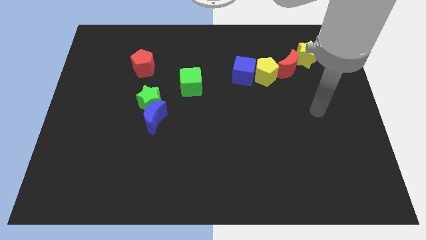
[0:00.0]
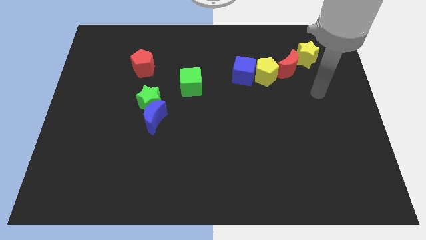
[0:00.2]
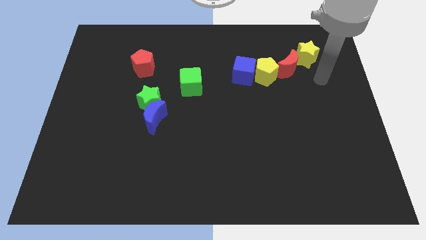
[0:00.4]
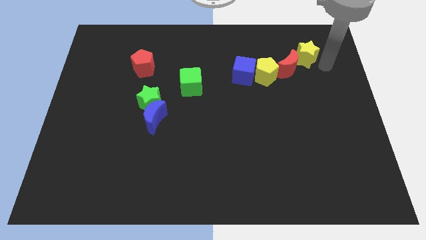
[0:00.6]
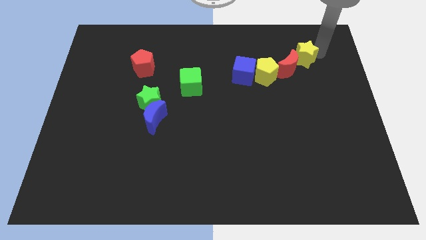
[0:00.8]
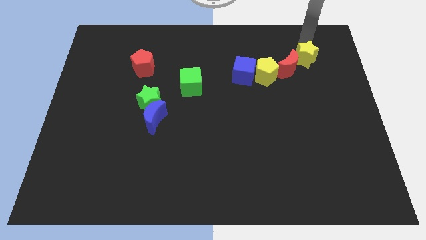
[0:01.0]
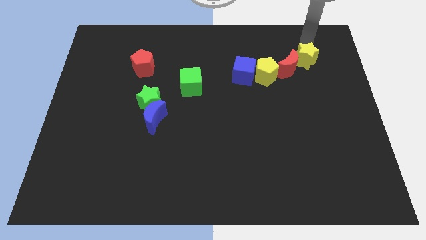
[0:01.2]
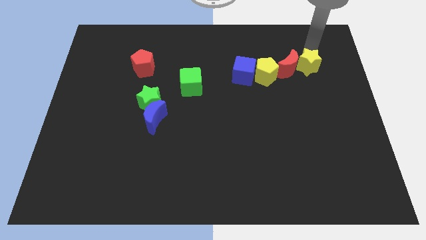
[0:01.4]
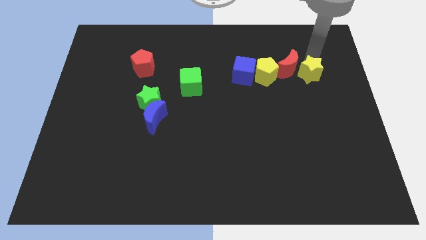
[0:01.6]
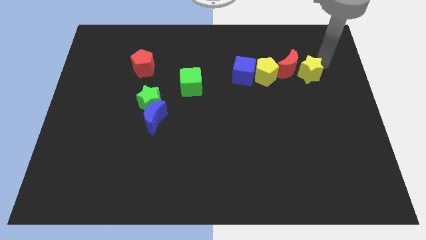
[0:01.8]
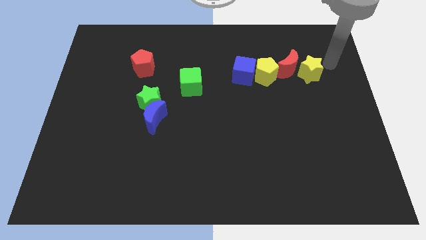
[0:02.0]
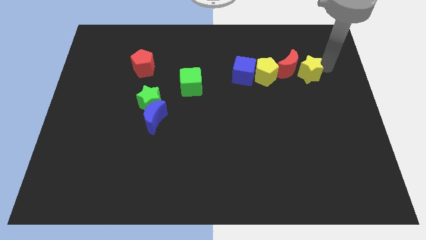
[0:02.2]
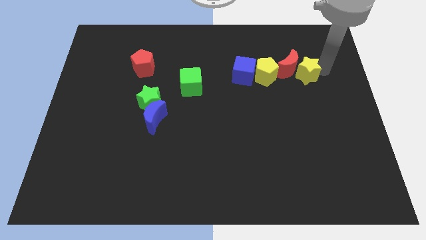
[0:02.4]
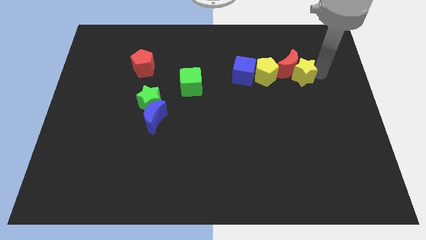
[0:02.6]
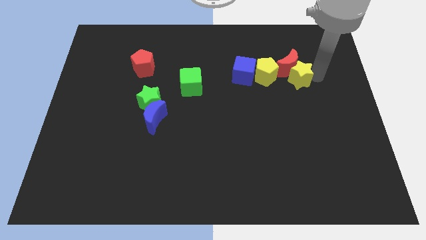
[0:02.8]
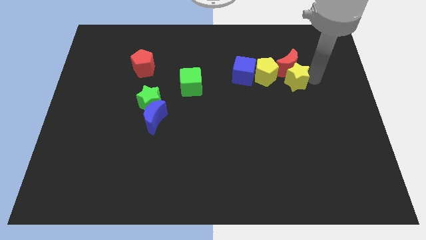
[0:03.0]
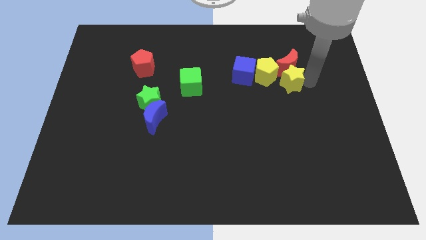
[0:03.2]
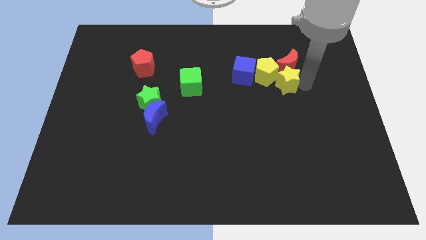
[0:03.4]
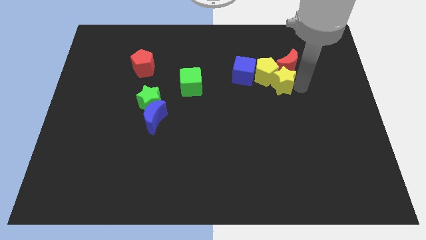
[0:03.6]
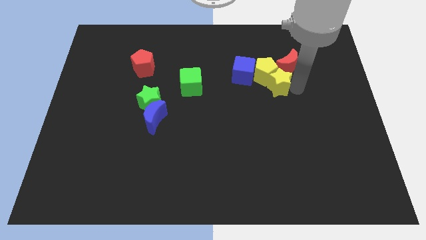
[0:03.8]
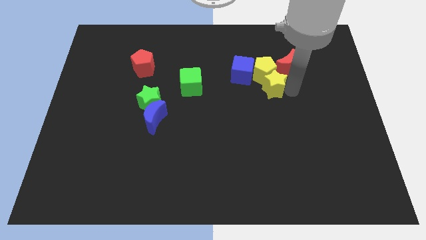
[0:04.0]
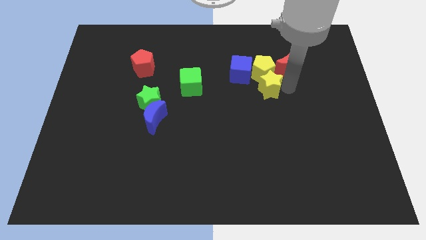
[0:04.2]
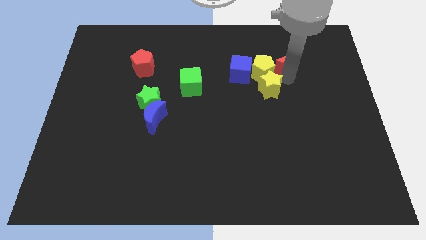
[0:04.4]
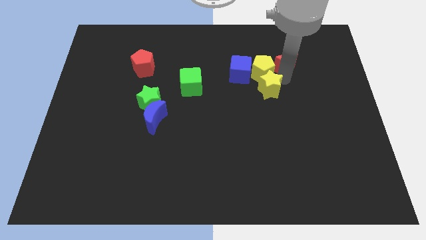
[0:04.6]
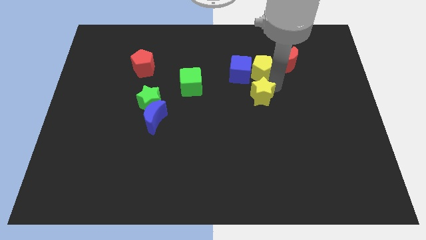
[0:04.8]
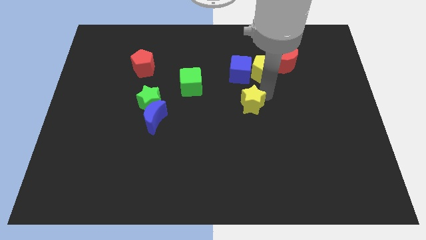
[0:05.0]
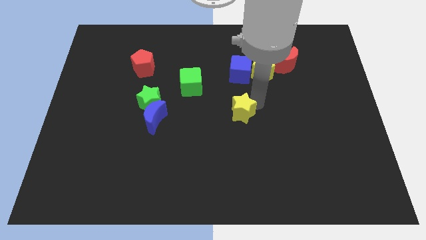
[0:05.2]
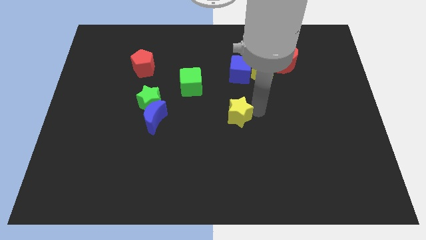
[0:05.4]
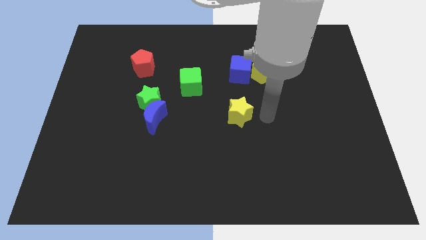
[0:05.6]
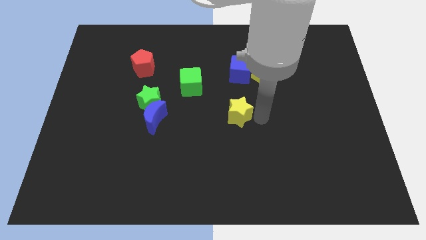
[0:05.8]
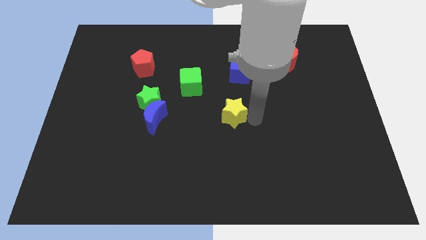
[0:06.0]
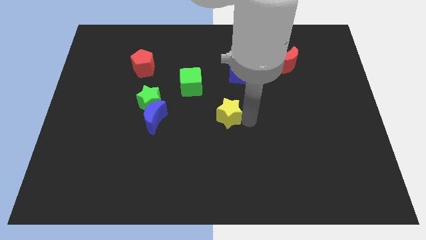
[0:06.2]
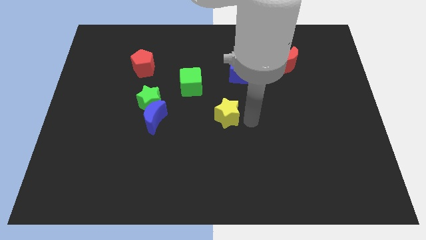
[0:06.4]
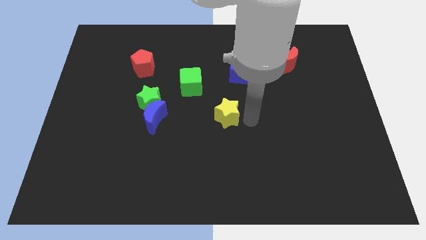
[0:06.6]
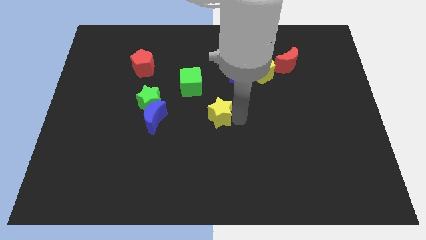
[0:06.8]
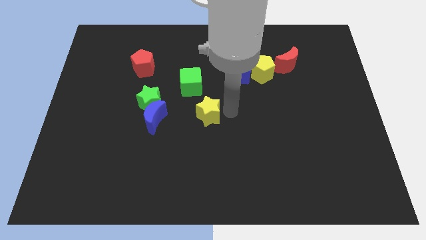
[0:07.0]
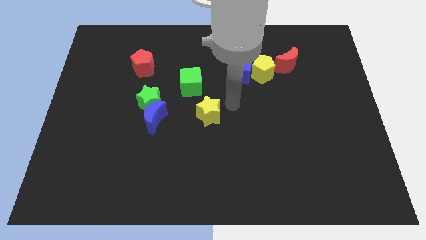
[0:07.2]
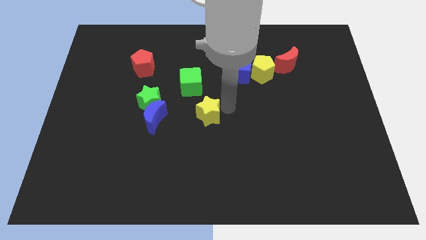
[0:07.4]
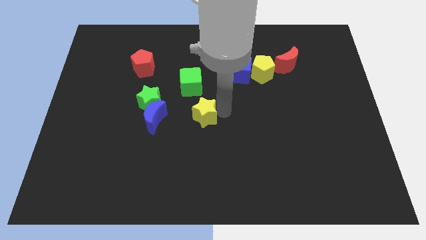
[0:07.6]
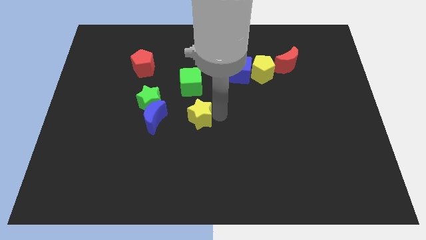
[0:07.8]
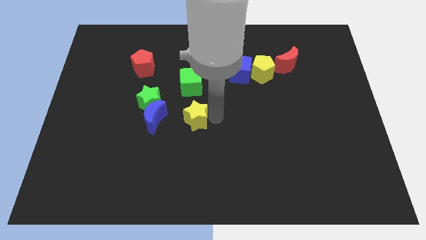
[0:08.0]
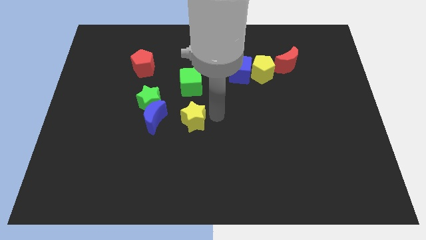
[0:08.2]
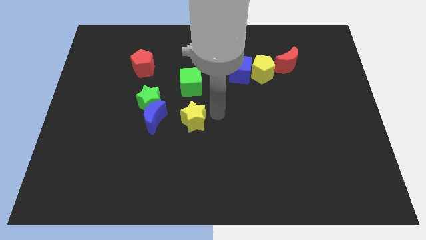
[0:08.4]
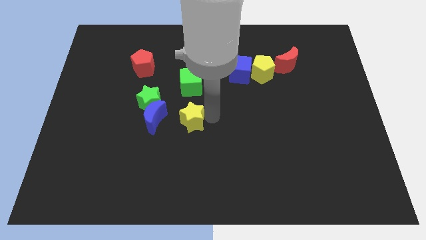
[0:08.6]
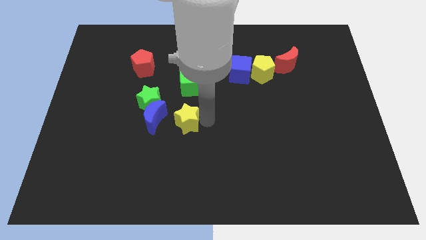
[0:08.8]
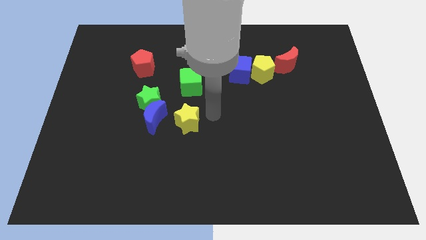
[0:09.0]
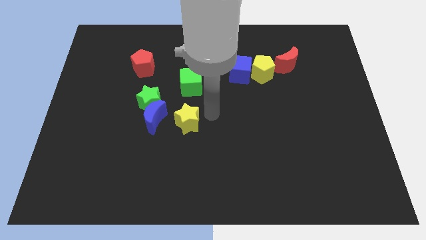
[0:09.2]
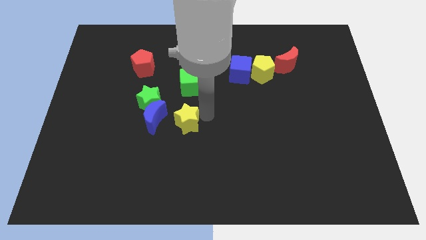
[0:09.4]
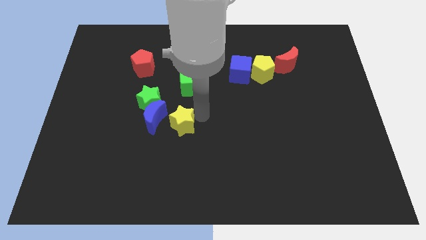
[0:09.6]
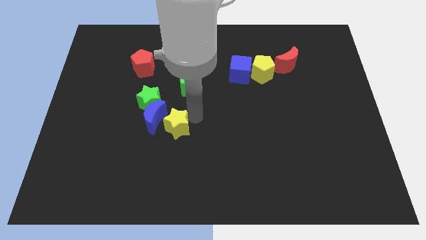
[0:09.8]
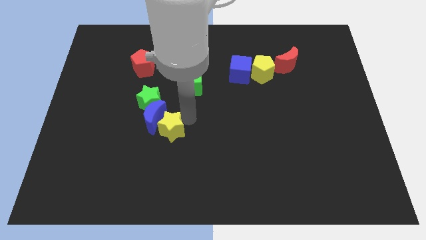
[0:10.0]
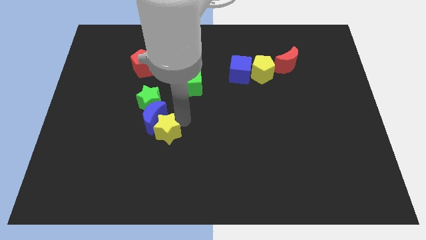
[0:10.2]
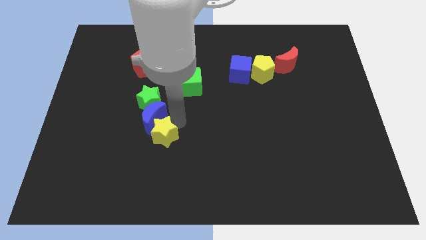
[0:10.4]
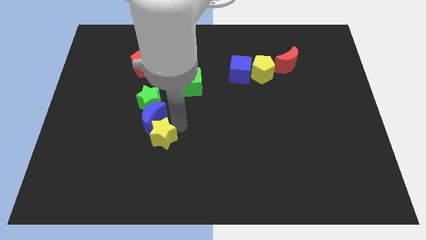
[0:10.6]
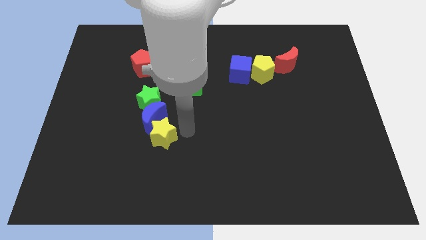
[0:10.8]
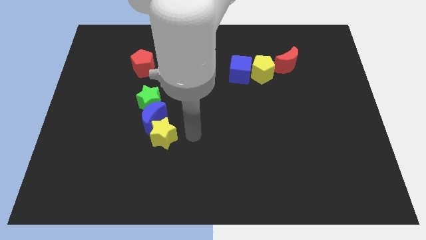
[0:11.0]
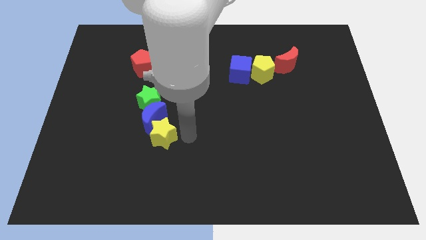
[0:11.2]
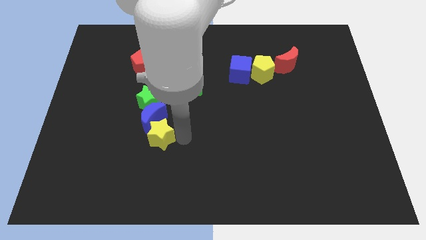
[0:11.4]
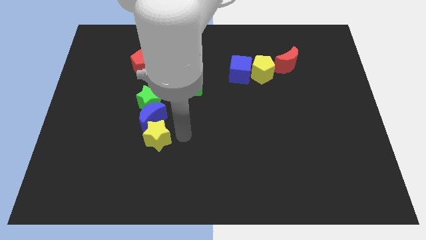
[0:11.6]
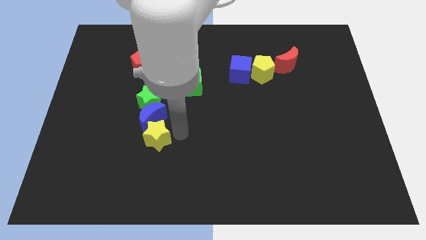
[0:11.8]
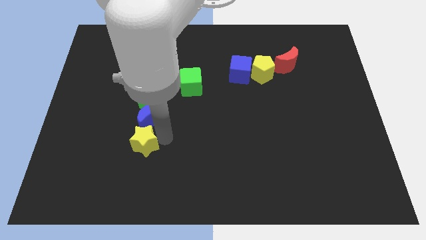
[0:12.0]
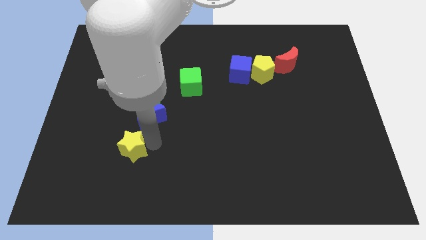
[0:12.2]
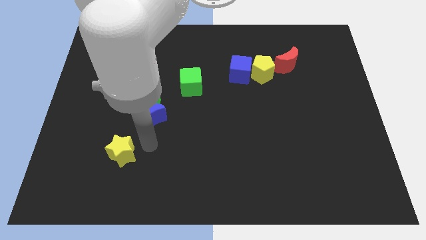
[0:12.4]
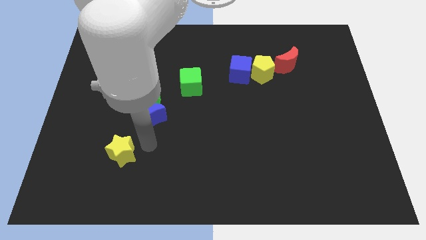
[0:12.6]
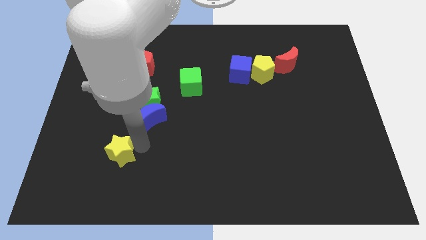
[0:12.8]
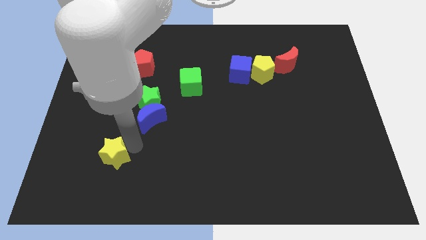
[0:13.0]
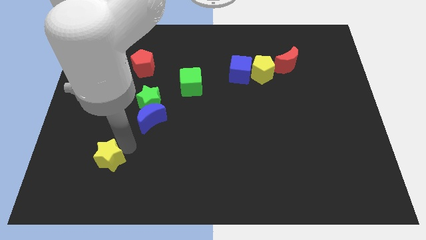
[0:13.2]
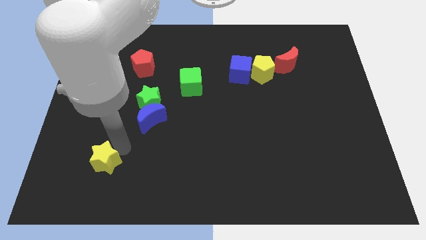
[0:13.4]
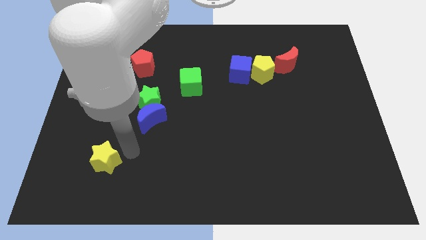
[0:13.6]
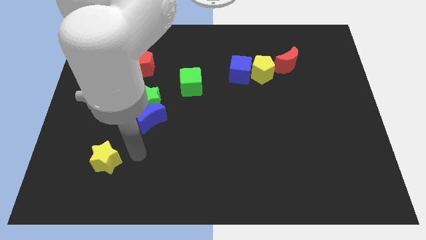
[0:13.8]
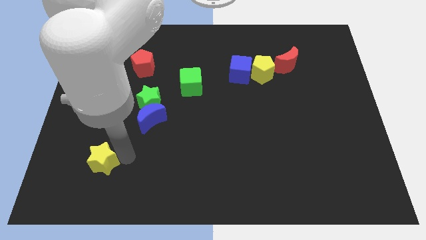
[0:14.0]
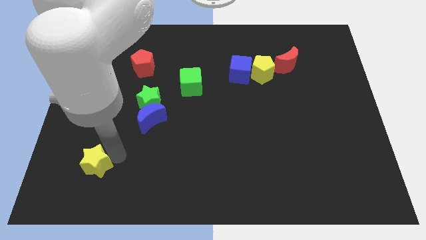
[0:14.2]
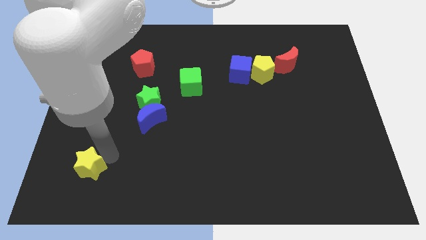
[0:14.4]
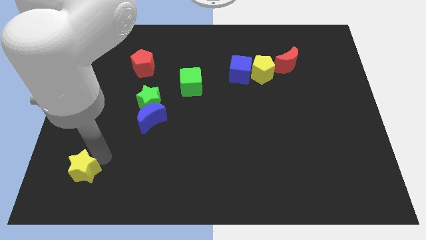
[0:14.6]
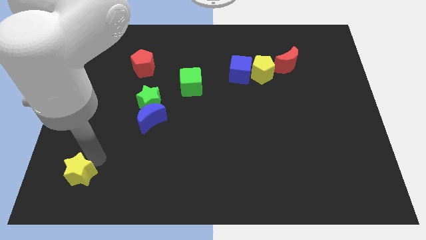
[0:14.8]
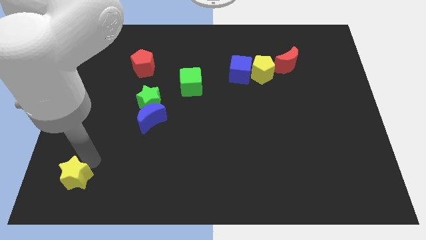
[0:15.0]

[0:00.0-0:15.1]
move the yellow star to the bottom left corner
